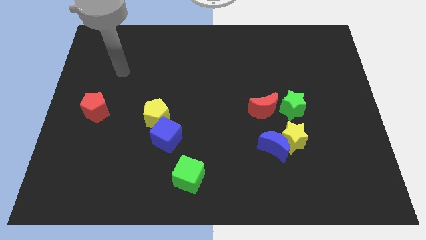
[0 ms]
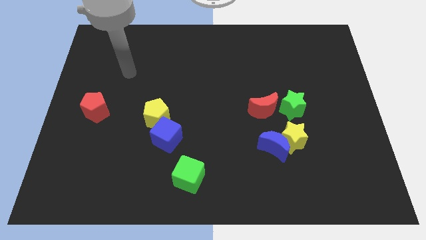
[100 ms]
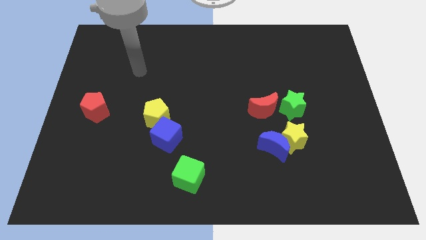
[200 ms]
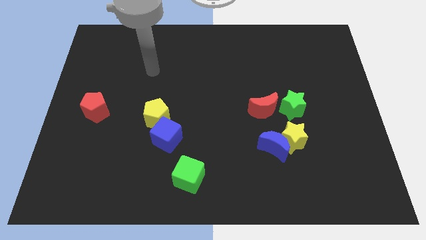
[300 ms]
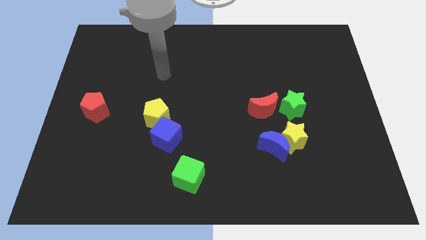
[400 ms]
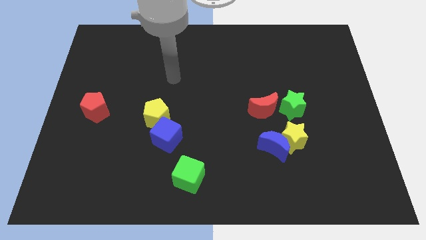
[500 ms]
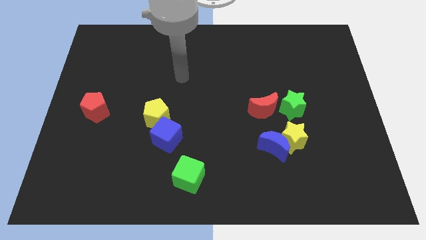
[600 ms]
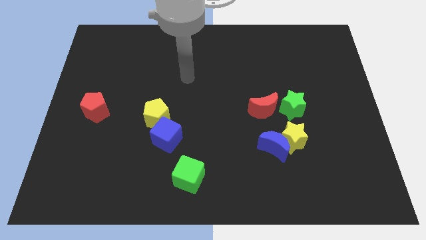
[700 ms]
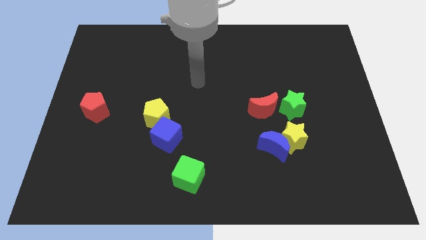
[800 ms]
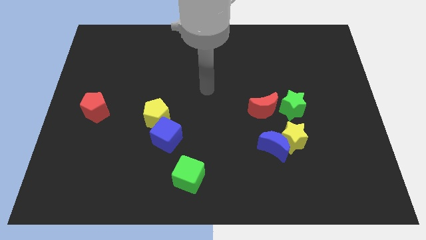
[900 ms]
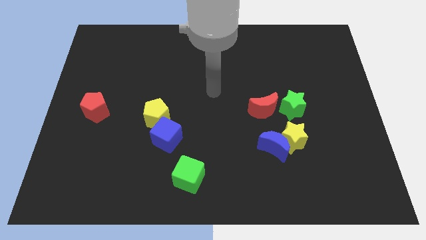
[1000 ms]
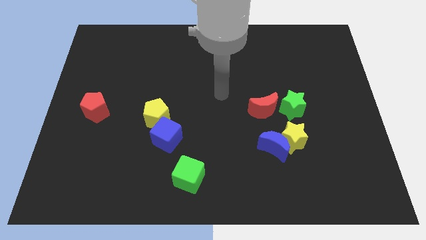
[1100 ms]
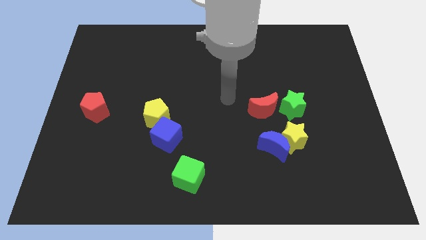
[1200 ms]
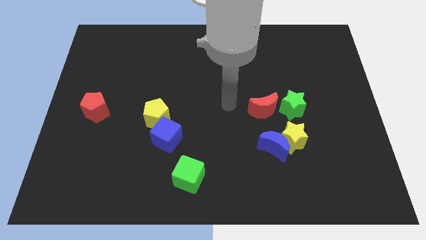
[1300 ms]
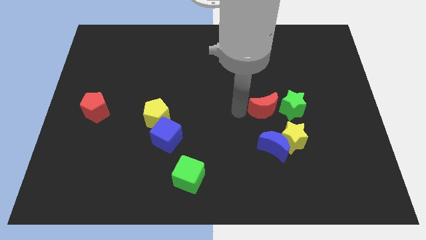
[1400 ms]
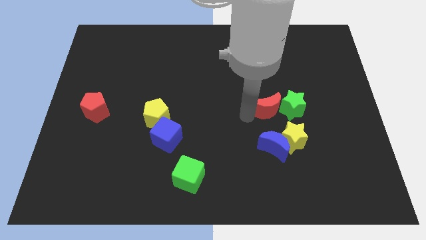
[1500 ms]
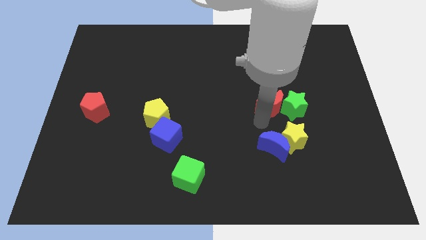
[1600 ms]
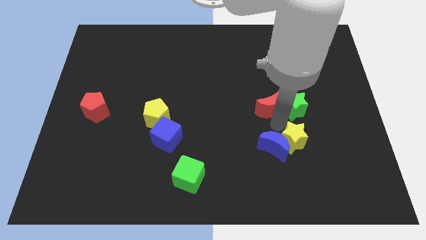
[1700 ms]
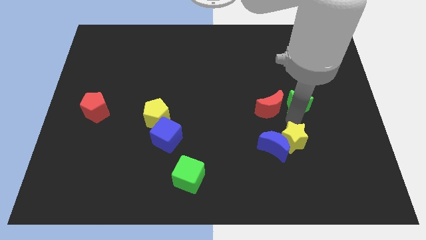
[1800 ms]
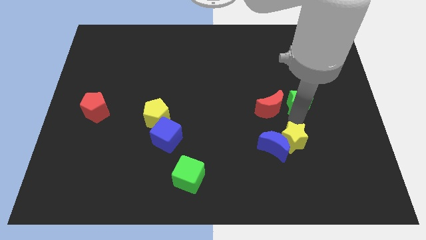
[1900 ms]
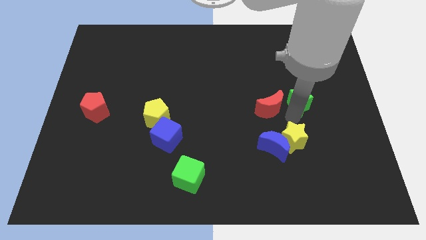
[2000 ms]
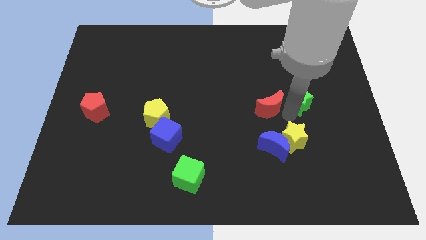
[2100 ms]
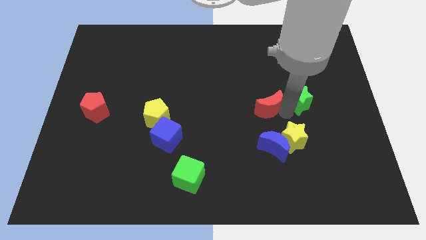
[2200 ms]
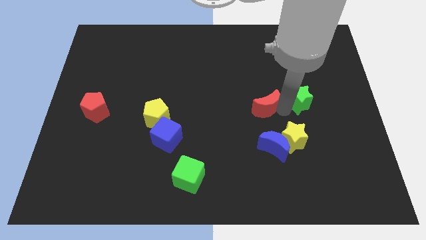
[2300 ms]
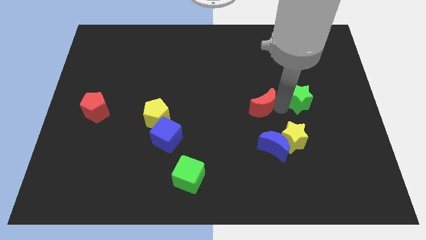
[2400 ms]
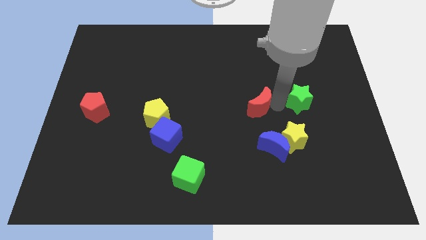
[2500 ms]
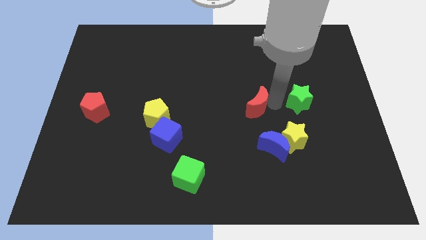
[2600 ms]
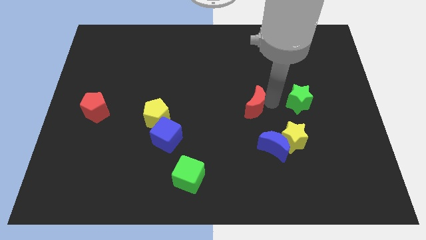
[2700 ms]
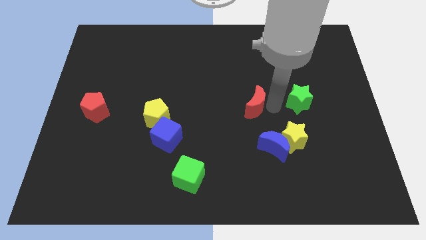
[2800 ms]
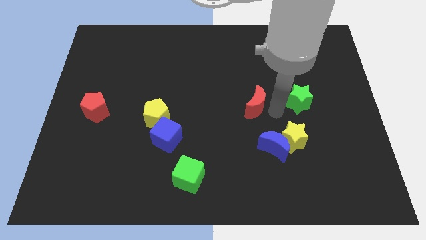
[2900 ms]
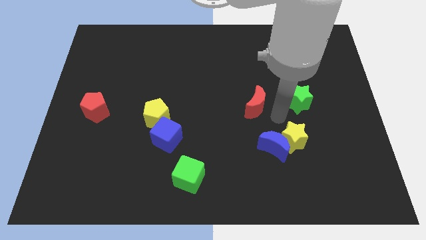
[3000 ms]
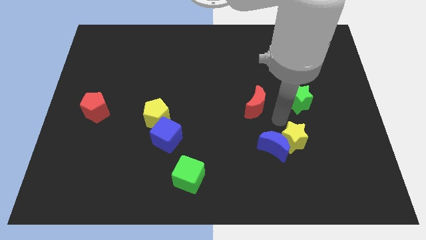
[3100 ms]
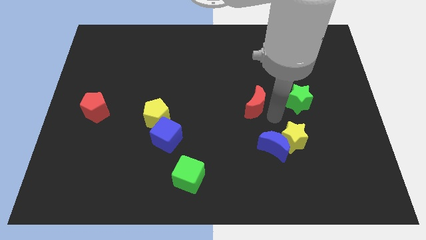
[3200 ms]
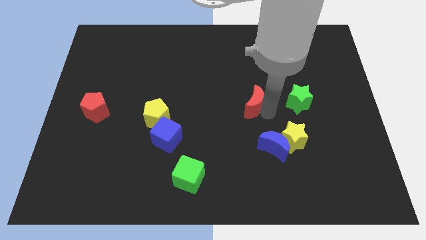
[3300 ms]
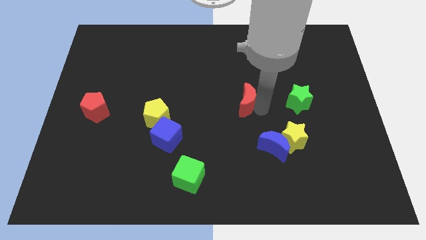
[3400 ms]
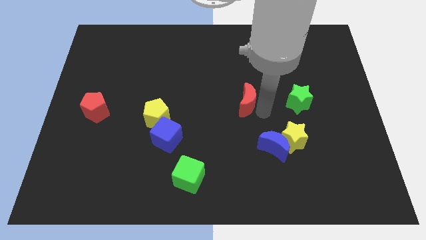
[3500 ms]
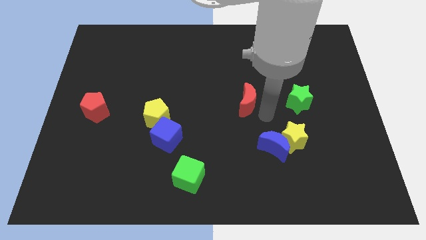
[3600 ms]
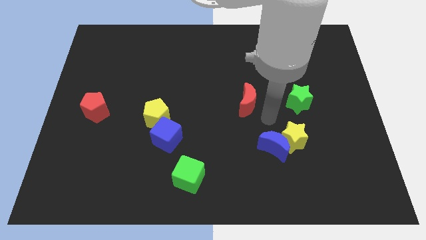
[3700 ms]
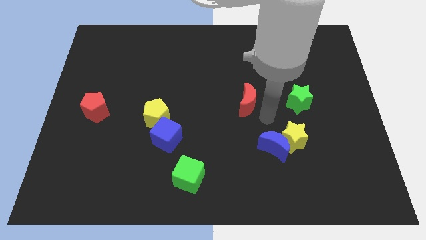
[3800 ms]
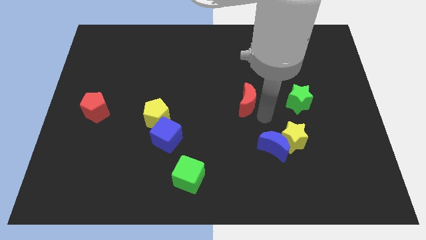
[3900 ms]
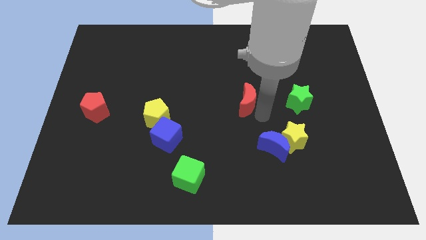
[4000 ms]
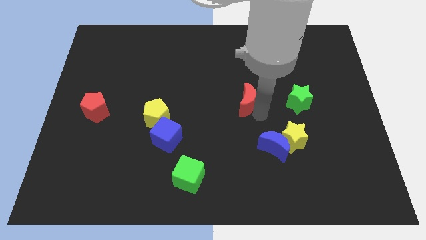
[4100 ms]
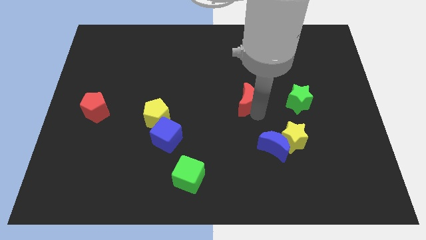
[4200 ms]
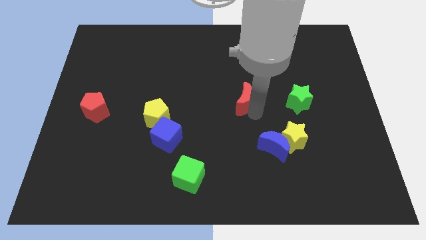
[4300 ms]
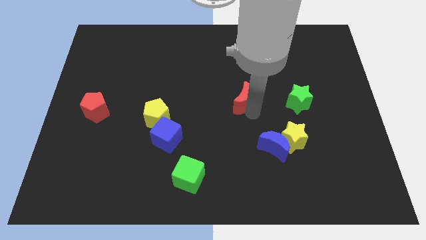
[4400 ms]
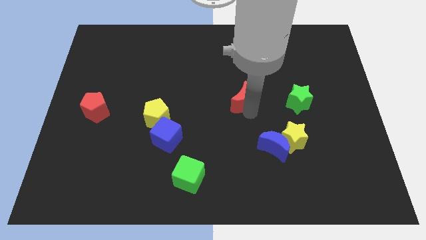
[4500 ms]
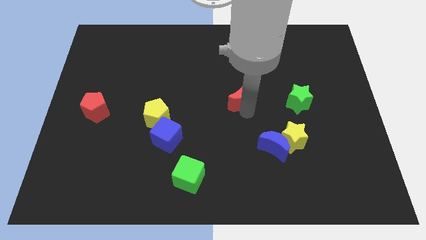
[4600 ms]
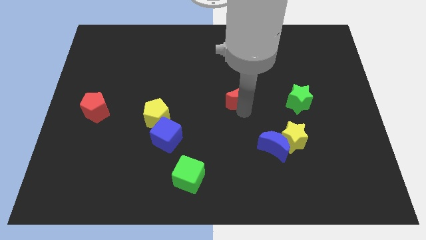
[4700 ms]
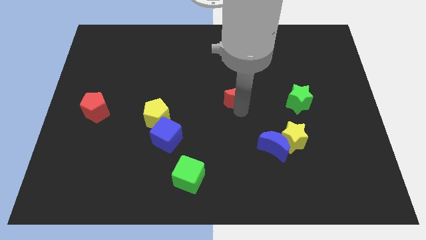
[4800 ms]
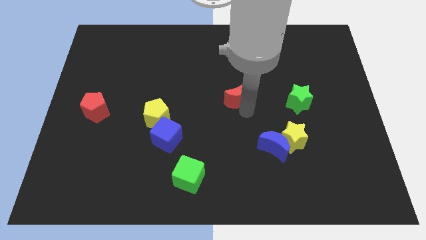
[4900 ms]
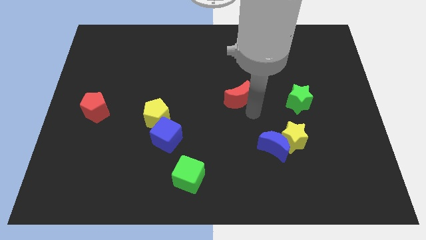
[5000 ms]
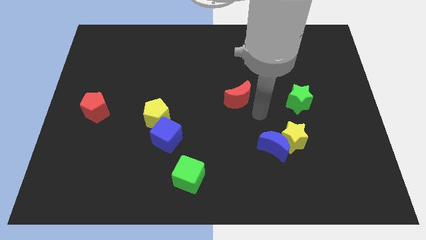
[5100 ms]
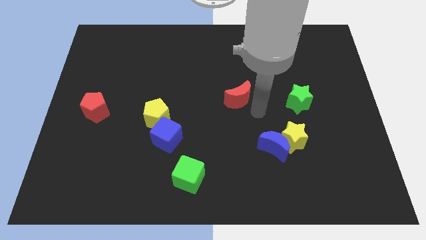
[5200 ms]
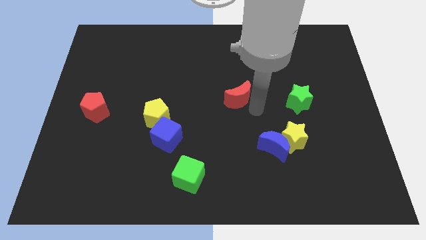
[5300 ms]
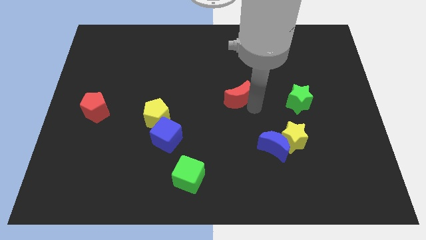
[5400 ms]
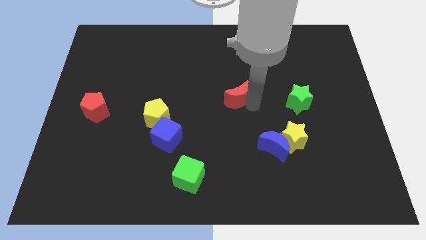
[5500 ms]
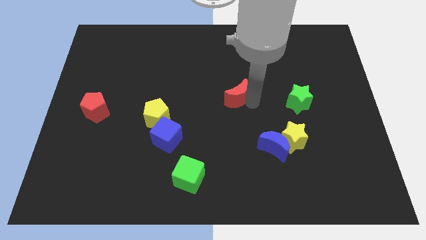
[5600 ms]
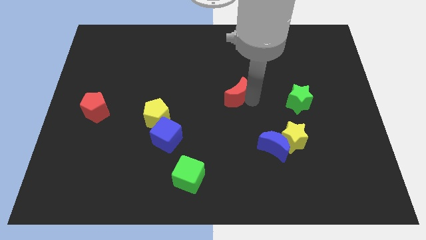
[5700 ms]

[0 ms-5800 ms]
push the red moon a little bit upwards and left diagonally

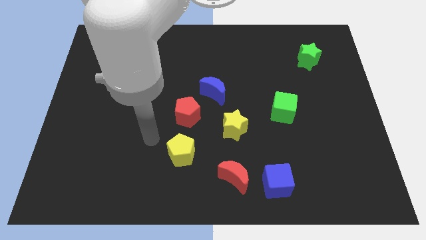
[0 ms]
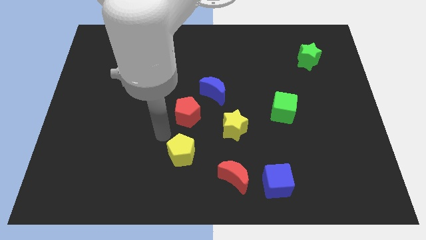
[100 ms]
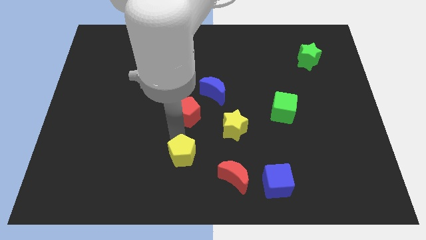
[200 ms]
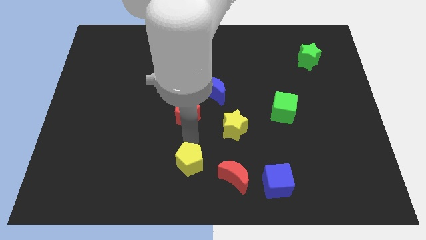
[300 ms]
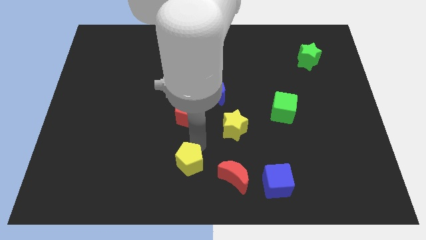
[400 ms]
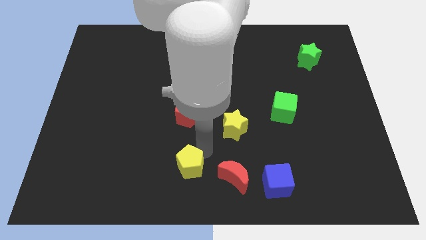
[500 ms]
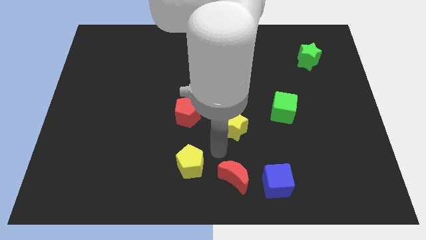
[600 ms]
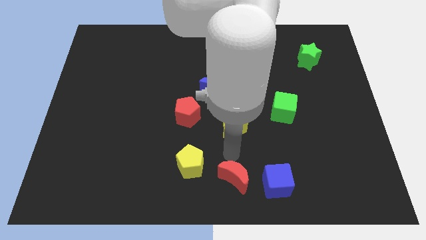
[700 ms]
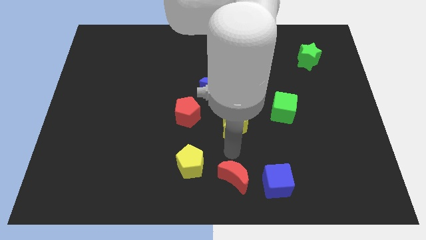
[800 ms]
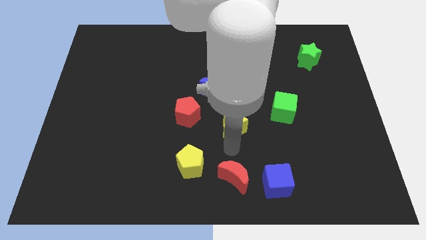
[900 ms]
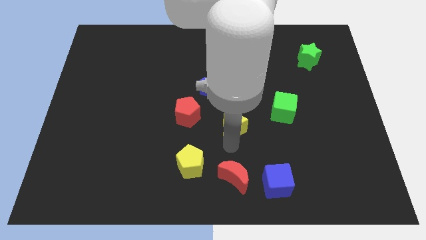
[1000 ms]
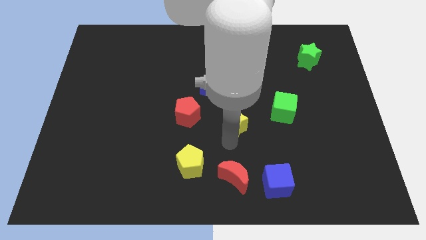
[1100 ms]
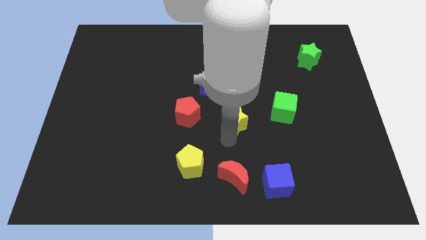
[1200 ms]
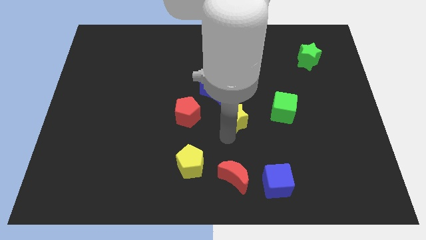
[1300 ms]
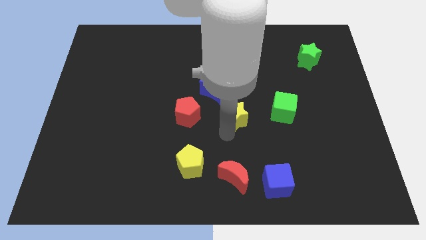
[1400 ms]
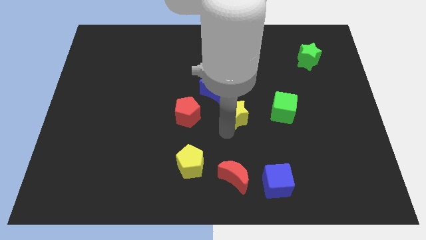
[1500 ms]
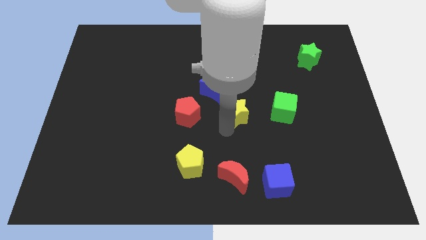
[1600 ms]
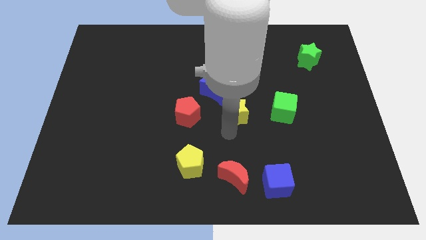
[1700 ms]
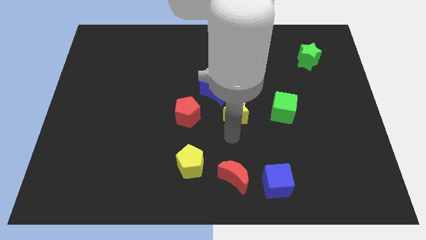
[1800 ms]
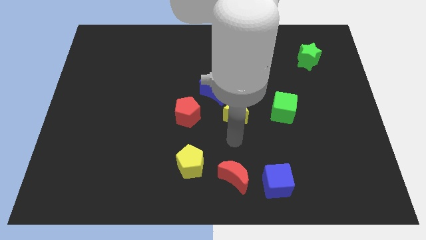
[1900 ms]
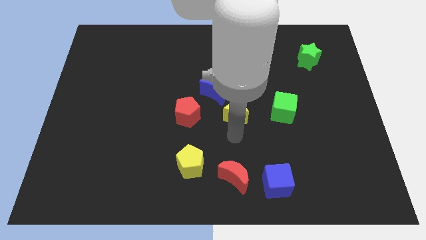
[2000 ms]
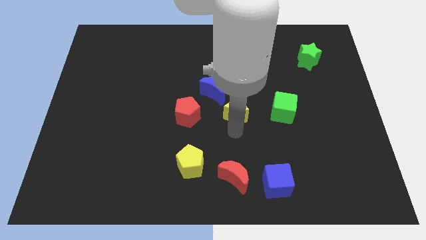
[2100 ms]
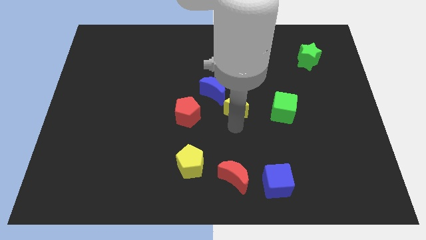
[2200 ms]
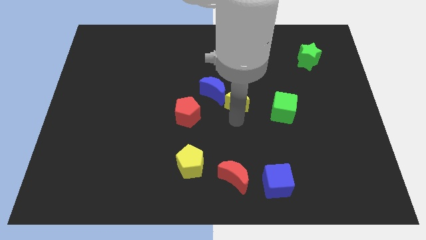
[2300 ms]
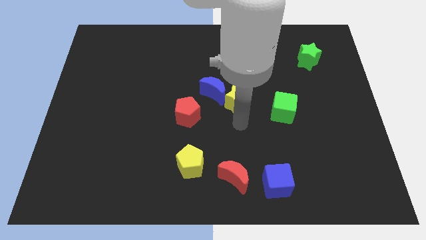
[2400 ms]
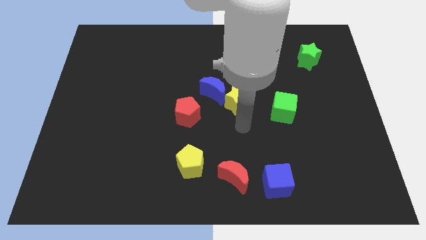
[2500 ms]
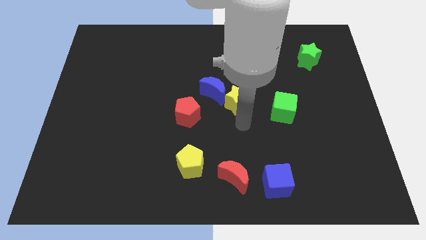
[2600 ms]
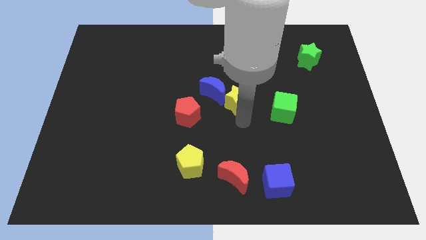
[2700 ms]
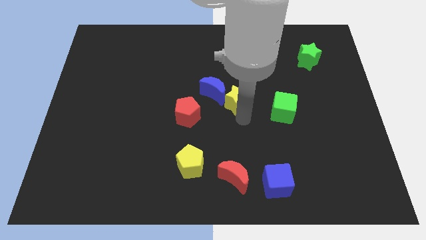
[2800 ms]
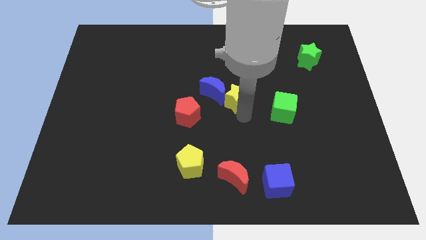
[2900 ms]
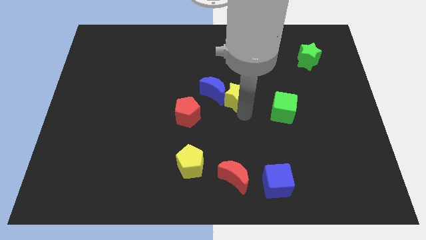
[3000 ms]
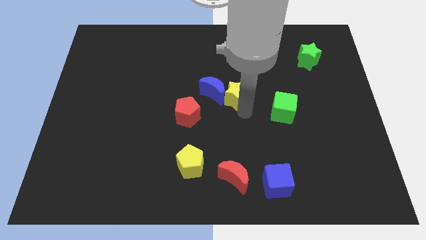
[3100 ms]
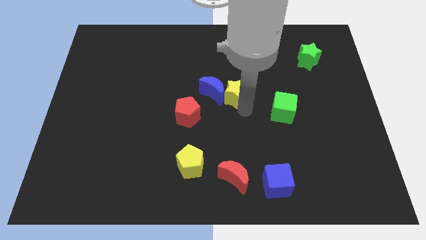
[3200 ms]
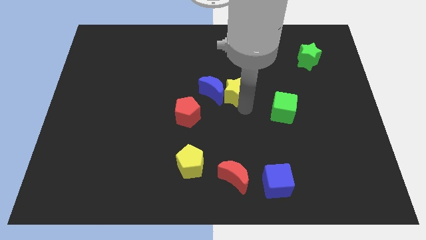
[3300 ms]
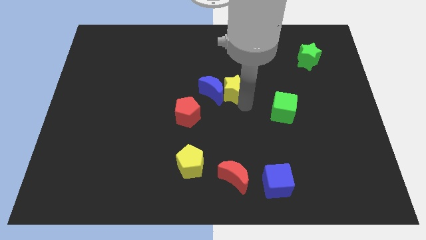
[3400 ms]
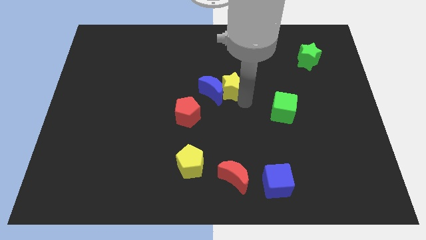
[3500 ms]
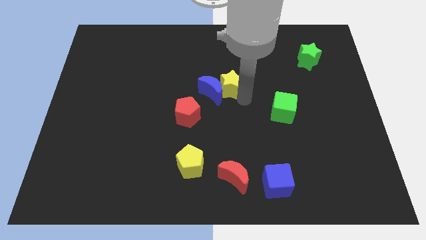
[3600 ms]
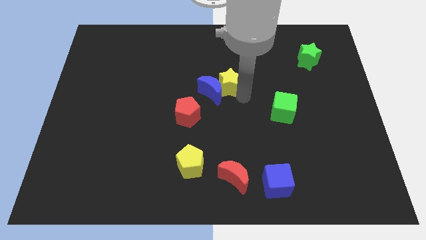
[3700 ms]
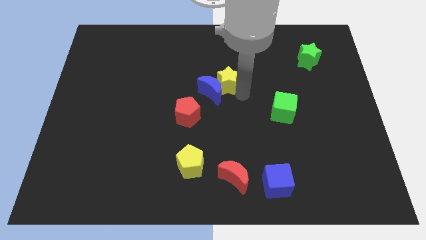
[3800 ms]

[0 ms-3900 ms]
move the yellow star diagonally upwards and left a little bit
